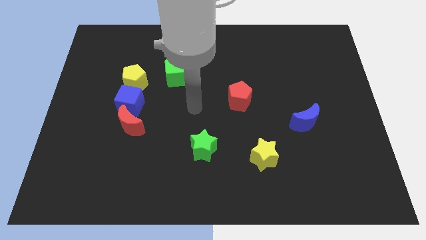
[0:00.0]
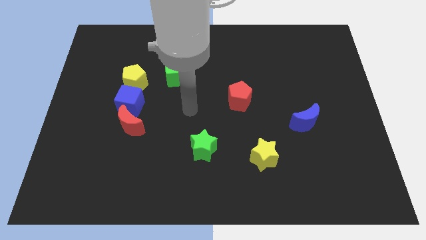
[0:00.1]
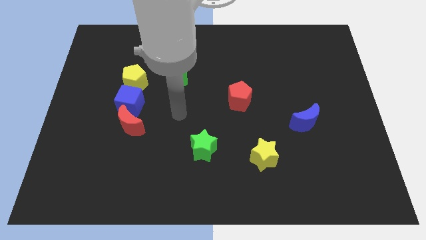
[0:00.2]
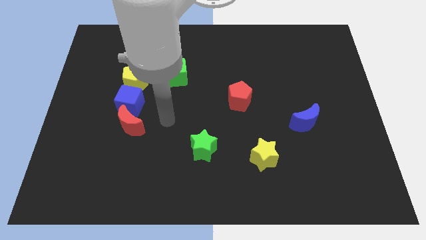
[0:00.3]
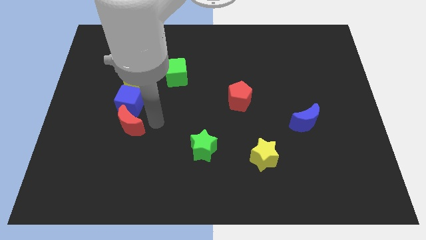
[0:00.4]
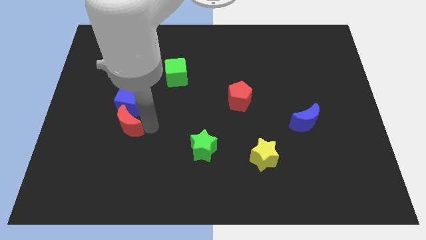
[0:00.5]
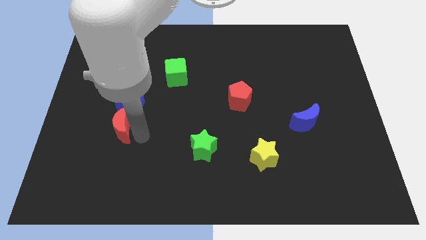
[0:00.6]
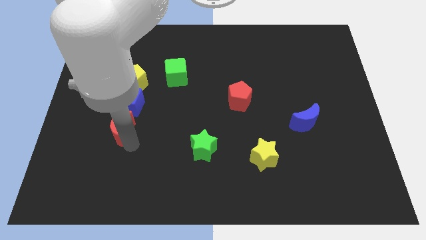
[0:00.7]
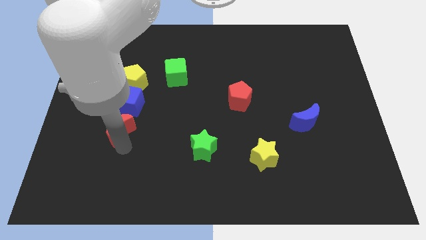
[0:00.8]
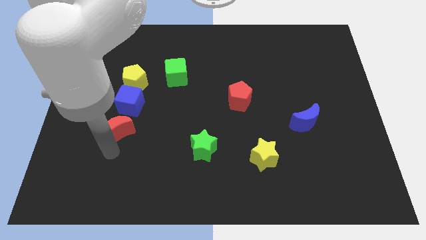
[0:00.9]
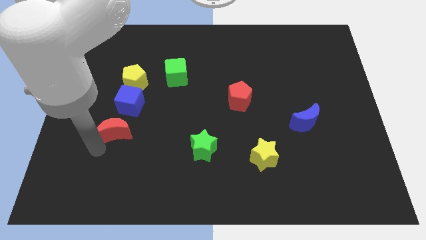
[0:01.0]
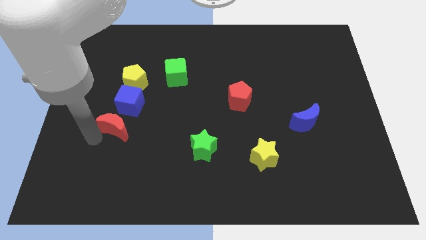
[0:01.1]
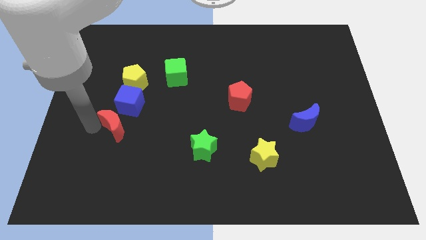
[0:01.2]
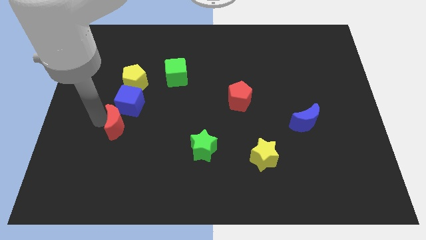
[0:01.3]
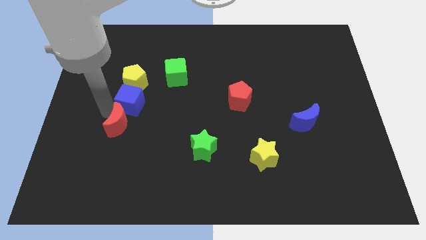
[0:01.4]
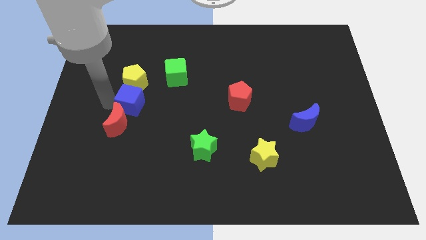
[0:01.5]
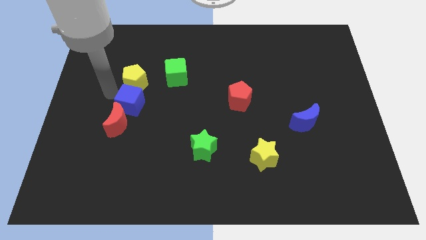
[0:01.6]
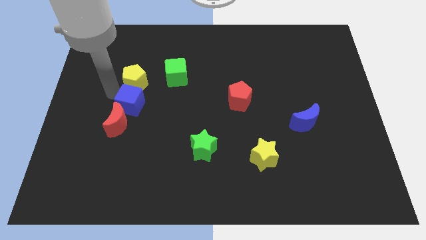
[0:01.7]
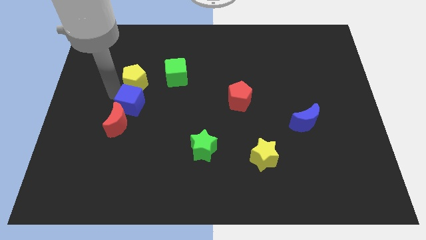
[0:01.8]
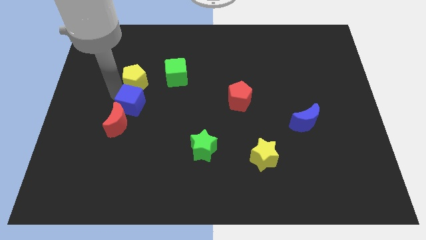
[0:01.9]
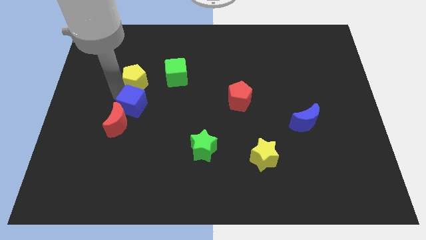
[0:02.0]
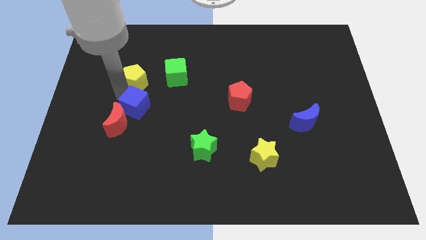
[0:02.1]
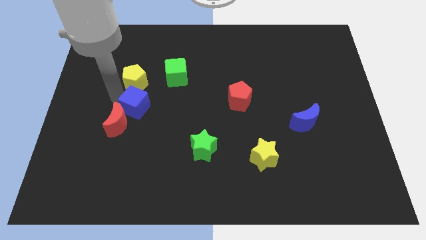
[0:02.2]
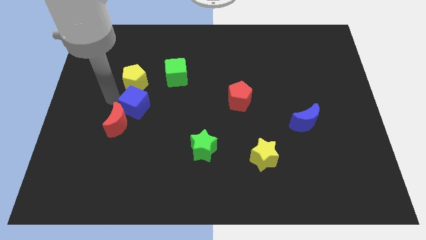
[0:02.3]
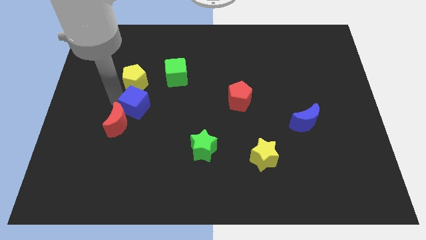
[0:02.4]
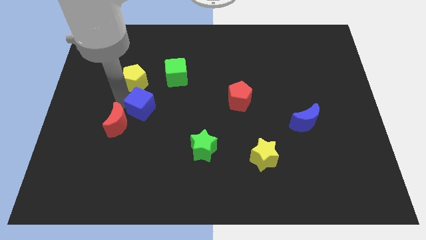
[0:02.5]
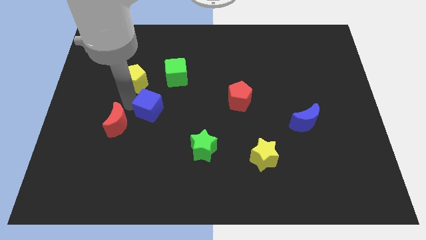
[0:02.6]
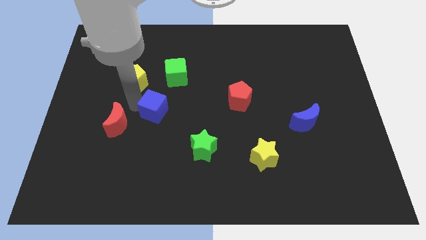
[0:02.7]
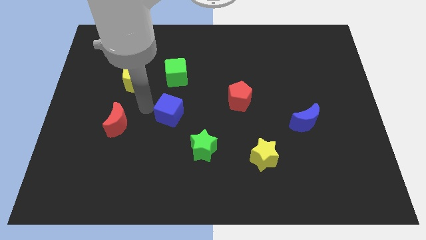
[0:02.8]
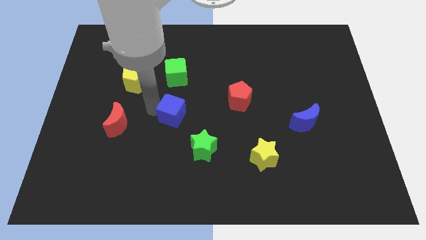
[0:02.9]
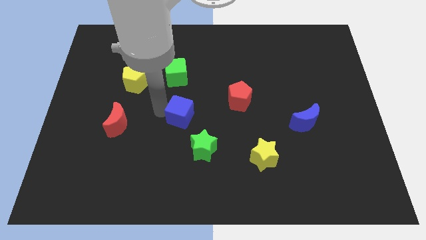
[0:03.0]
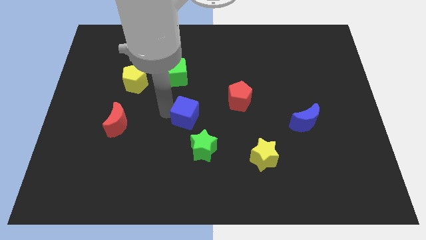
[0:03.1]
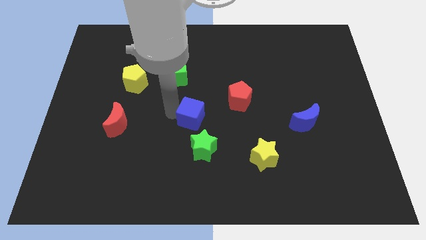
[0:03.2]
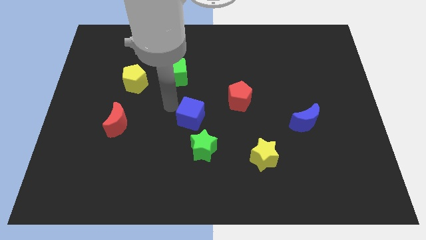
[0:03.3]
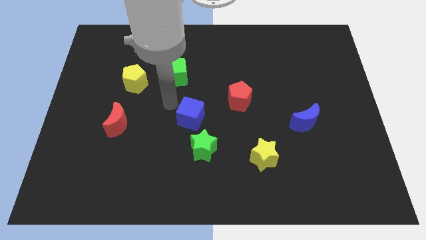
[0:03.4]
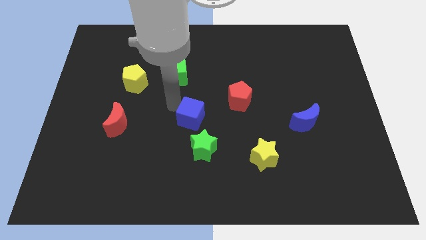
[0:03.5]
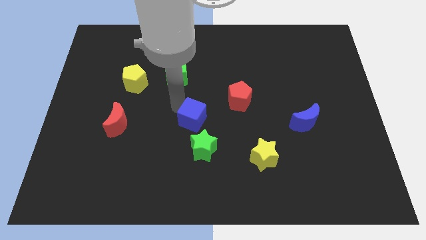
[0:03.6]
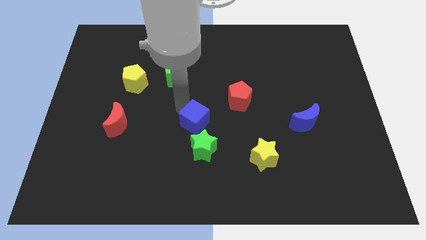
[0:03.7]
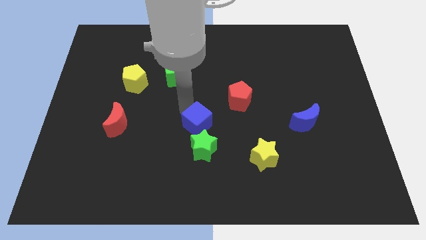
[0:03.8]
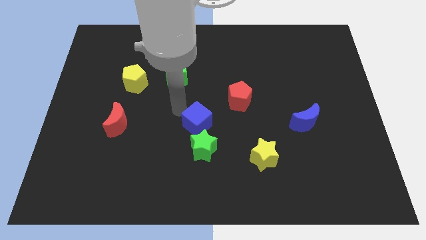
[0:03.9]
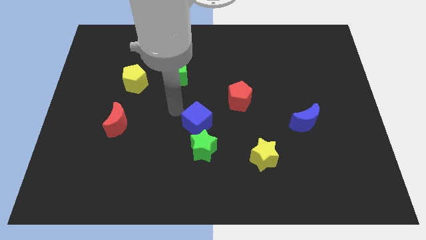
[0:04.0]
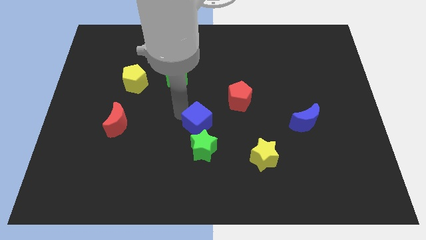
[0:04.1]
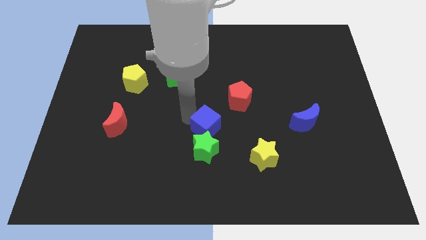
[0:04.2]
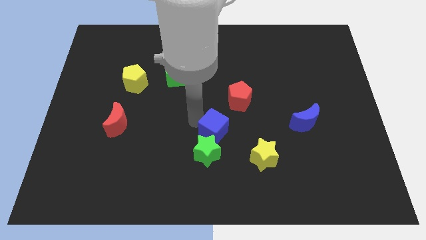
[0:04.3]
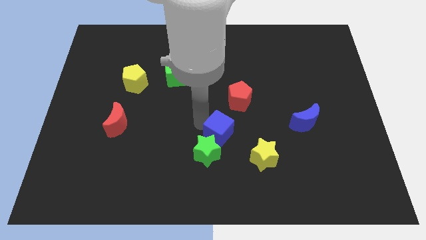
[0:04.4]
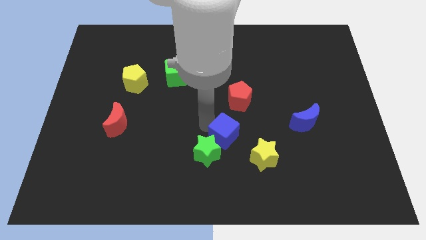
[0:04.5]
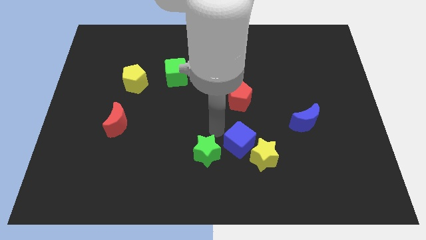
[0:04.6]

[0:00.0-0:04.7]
put the blue cube close to the yellow star

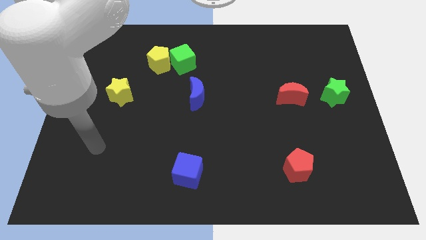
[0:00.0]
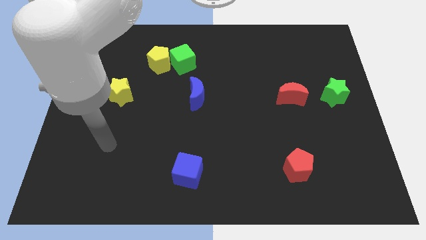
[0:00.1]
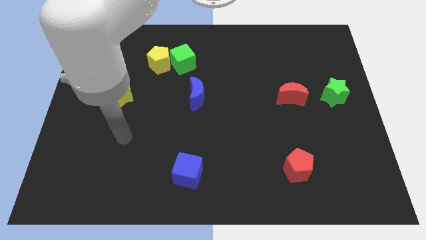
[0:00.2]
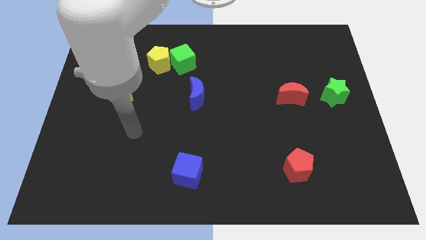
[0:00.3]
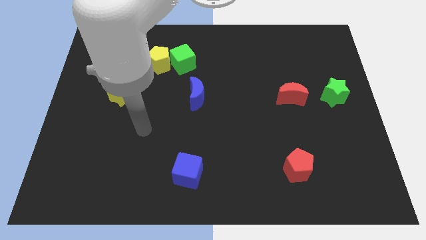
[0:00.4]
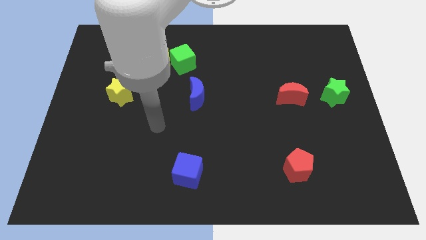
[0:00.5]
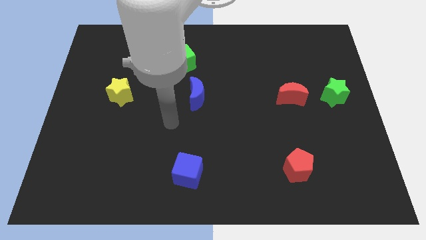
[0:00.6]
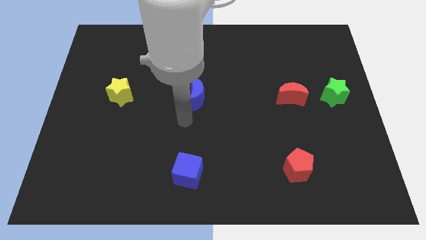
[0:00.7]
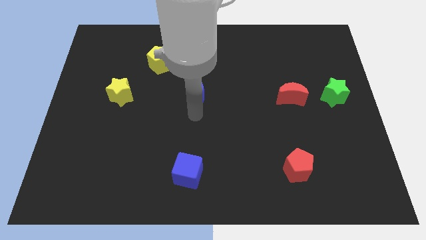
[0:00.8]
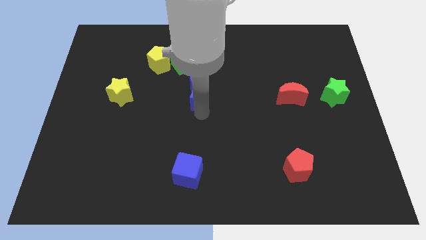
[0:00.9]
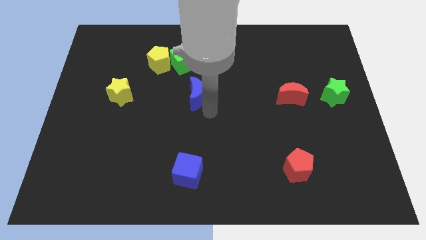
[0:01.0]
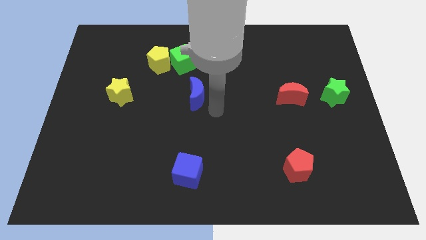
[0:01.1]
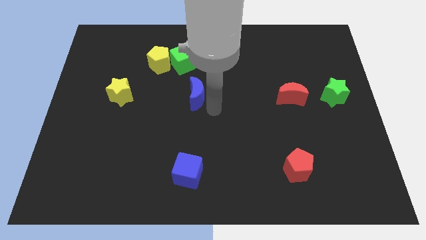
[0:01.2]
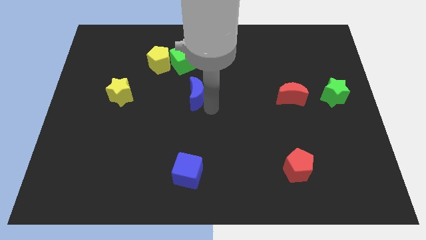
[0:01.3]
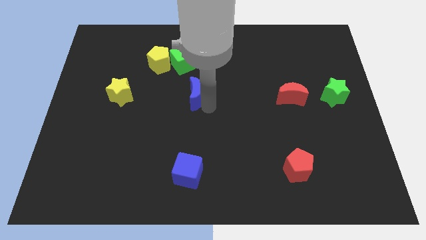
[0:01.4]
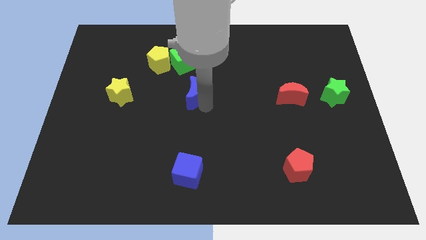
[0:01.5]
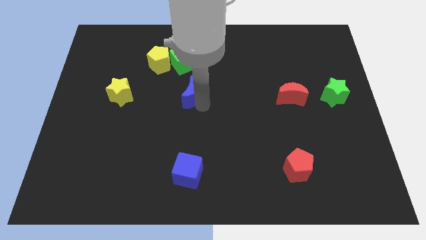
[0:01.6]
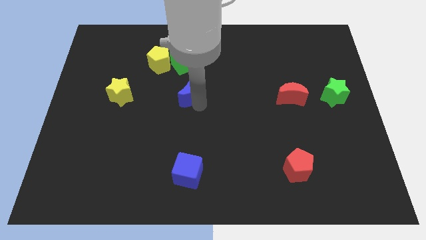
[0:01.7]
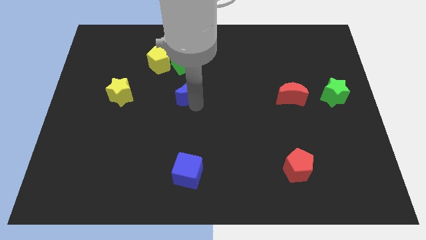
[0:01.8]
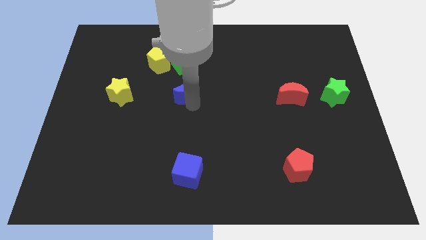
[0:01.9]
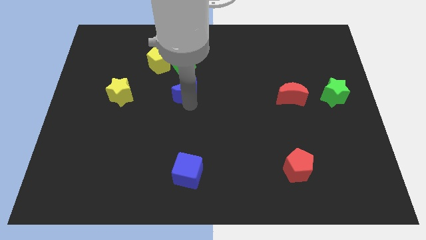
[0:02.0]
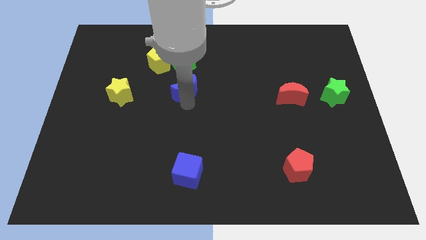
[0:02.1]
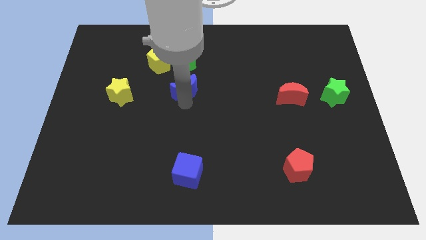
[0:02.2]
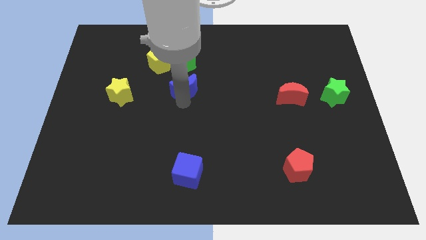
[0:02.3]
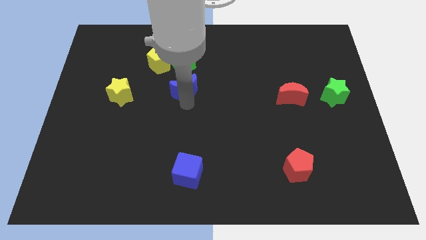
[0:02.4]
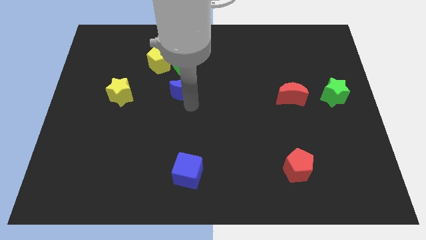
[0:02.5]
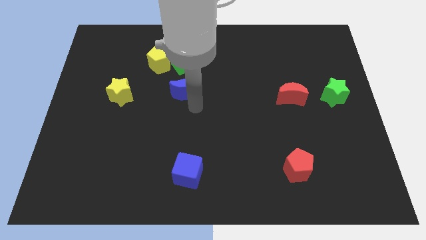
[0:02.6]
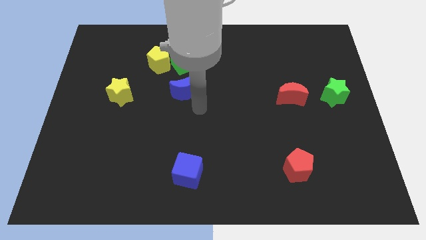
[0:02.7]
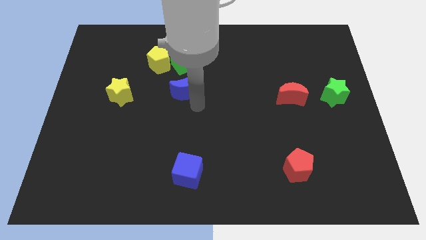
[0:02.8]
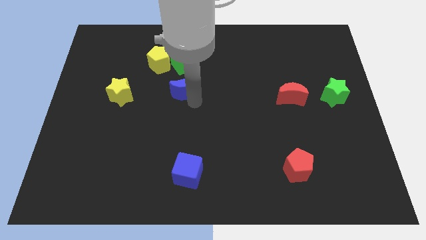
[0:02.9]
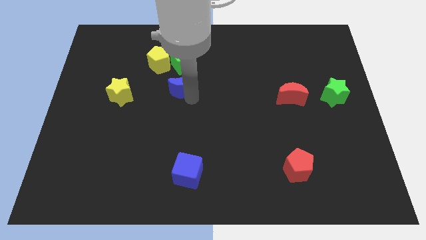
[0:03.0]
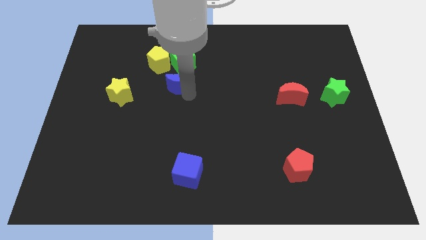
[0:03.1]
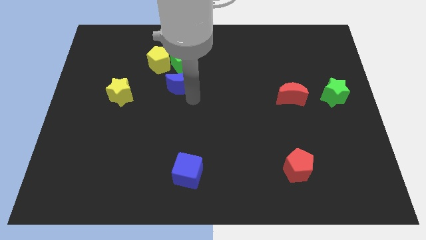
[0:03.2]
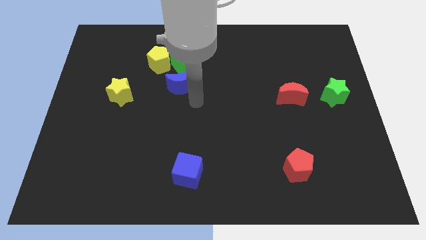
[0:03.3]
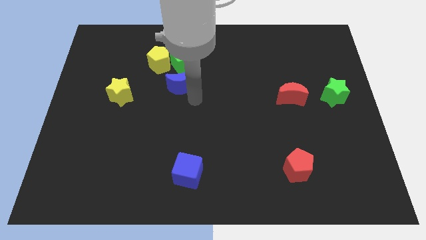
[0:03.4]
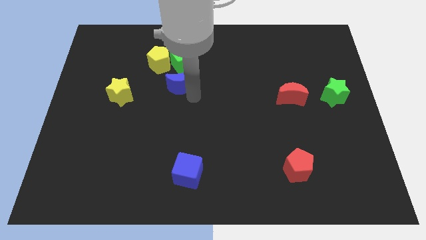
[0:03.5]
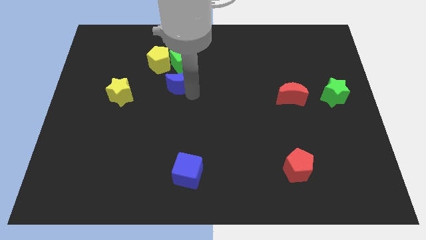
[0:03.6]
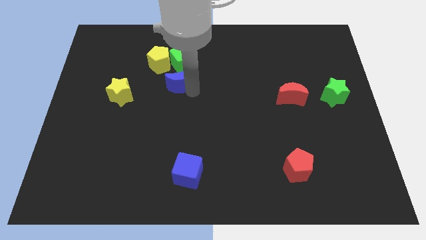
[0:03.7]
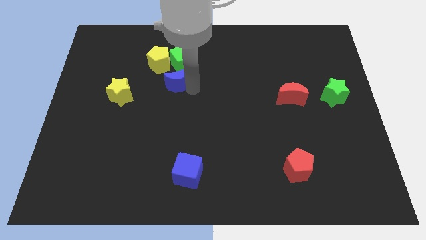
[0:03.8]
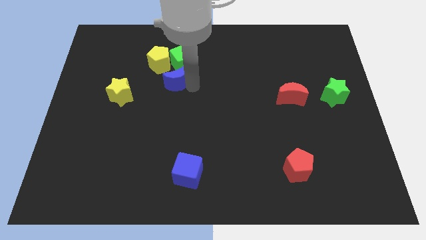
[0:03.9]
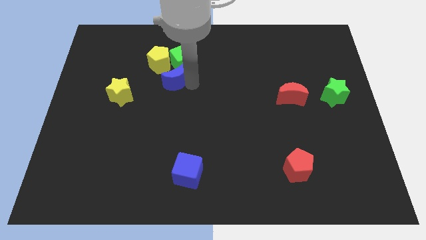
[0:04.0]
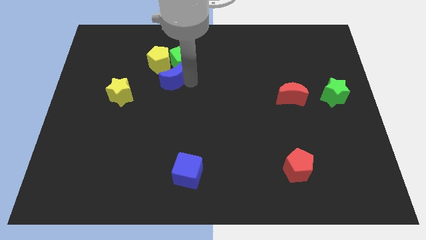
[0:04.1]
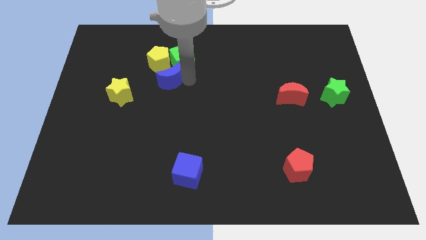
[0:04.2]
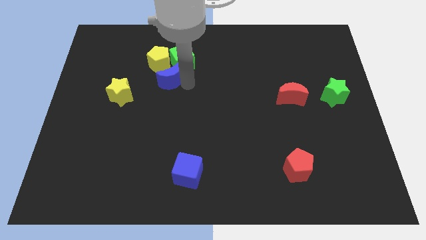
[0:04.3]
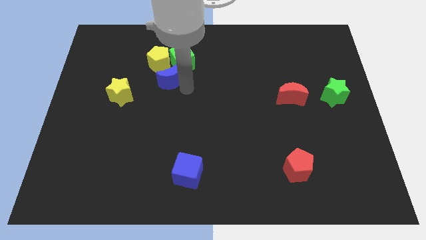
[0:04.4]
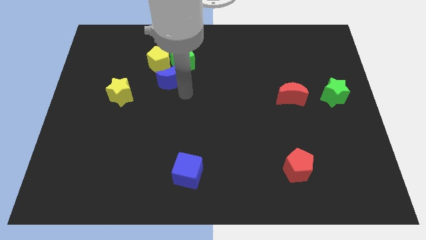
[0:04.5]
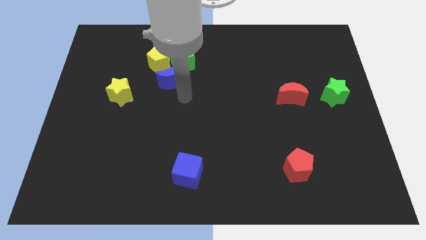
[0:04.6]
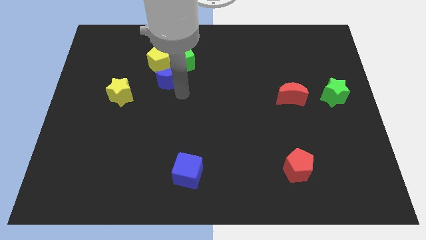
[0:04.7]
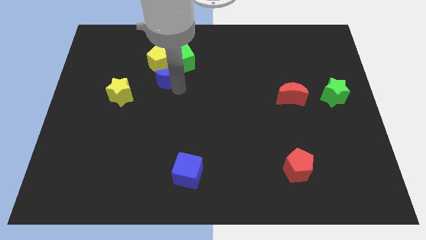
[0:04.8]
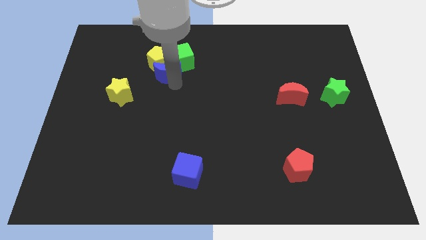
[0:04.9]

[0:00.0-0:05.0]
push the blue moon to the yellow pentagon
